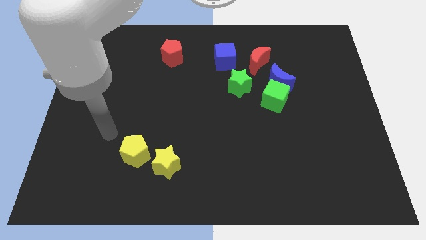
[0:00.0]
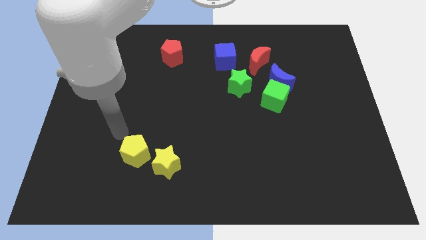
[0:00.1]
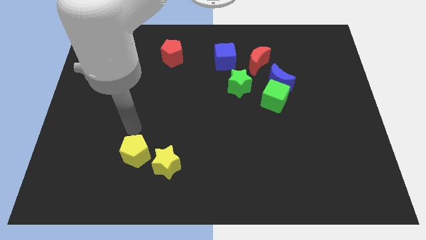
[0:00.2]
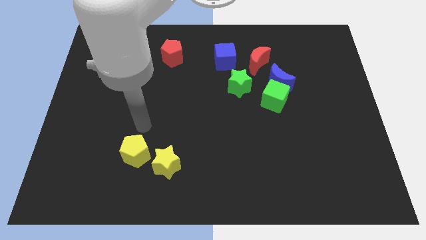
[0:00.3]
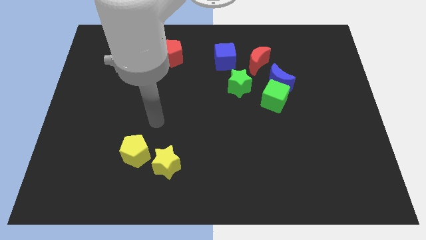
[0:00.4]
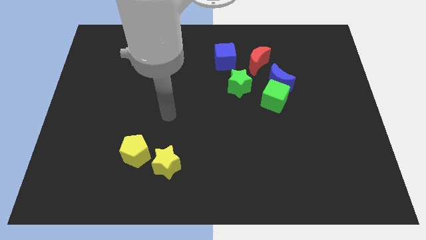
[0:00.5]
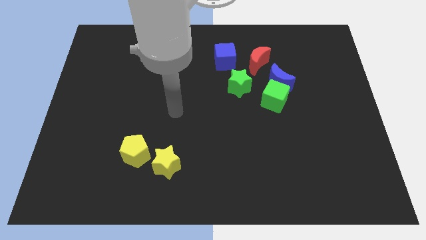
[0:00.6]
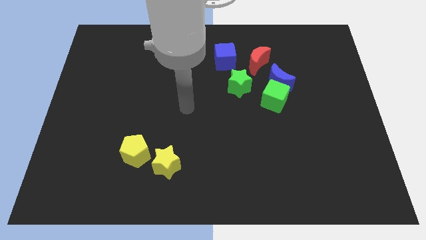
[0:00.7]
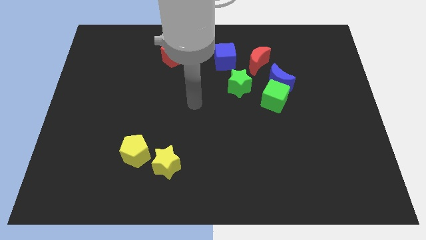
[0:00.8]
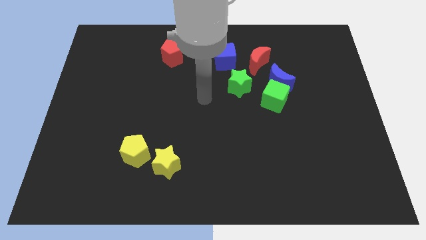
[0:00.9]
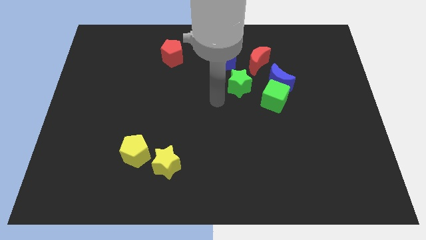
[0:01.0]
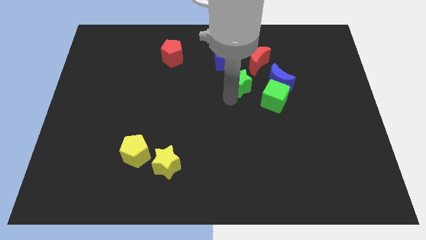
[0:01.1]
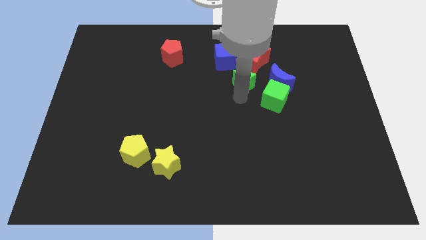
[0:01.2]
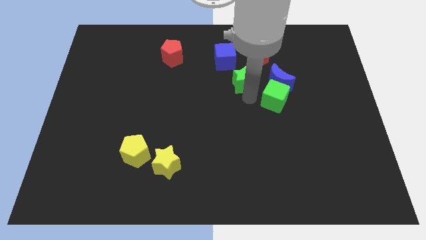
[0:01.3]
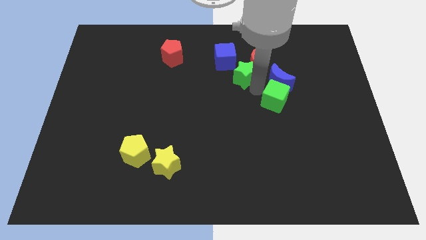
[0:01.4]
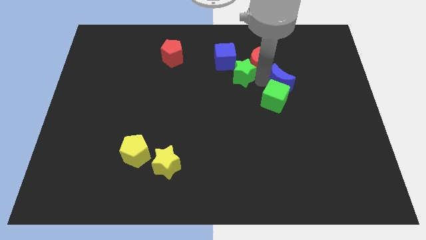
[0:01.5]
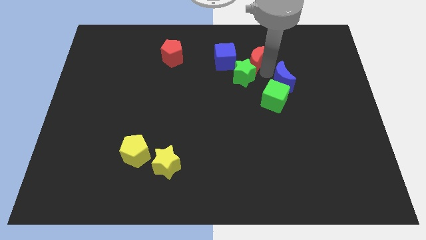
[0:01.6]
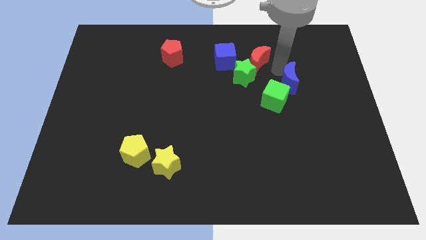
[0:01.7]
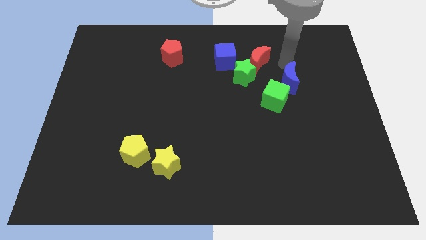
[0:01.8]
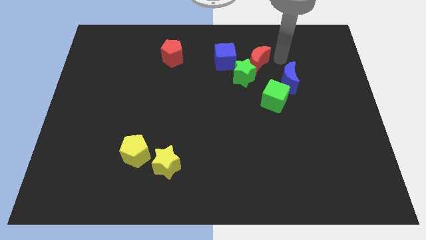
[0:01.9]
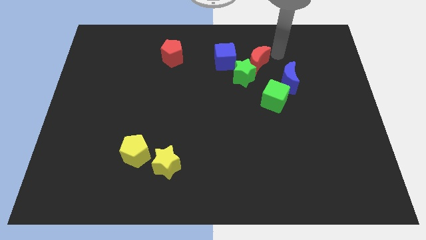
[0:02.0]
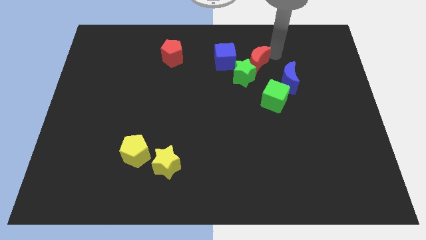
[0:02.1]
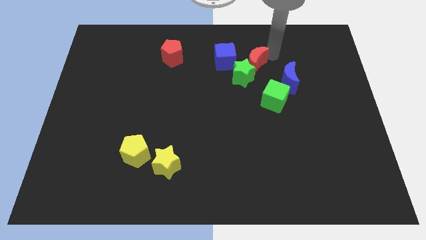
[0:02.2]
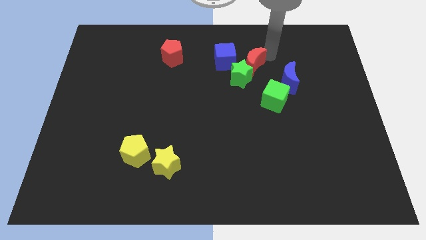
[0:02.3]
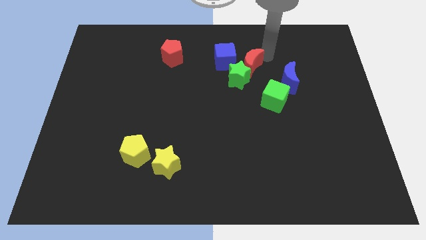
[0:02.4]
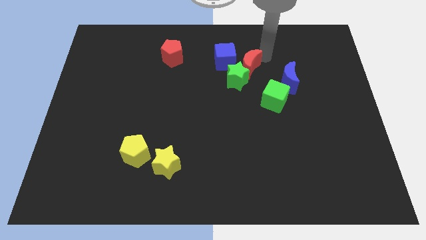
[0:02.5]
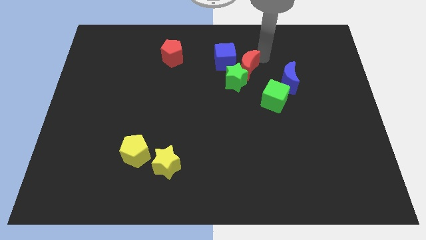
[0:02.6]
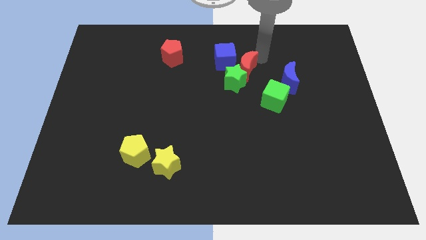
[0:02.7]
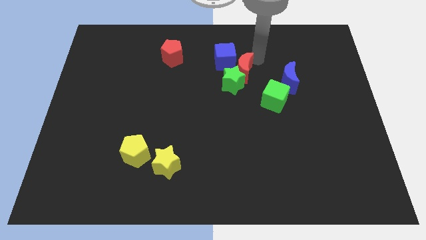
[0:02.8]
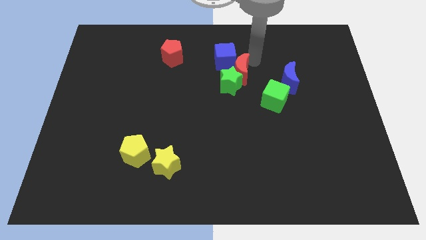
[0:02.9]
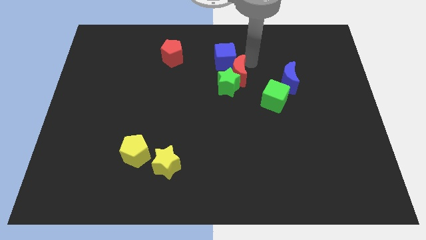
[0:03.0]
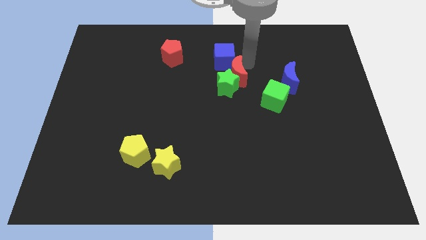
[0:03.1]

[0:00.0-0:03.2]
slightly push the red moon down and to the left

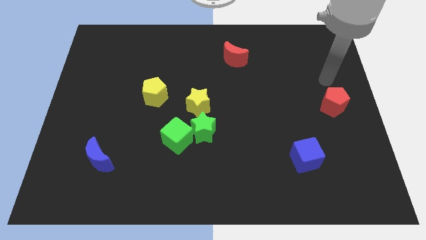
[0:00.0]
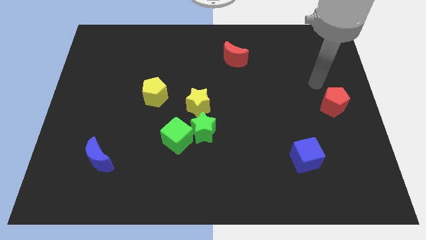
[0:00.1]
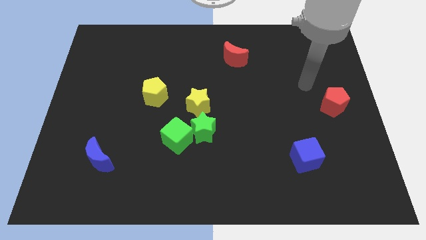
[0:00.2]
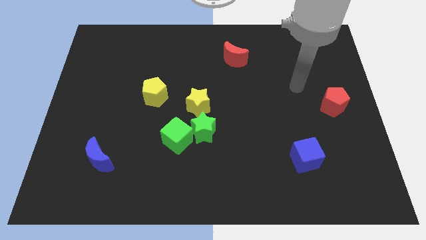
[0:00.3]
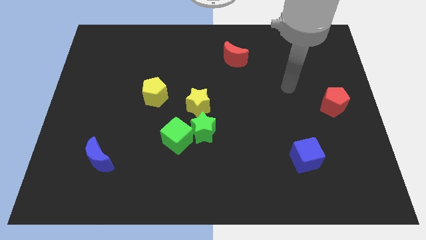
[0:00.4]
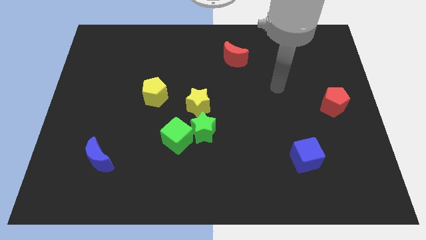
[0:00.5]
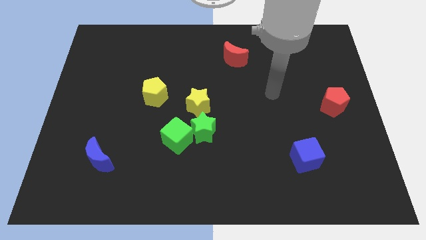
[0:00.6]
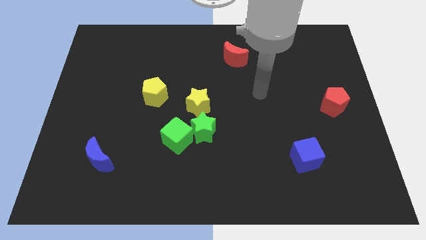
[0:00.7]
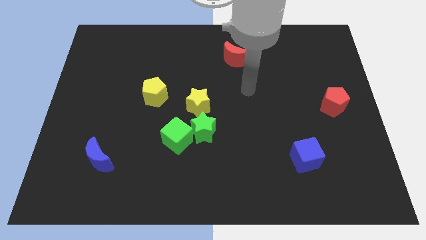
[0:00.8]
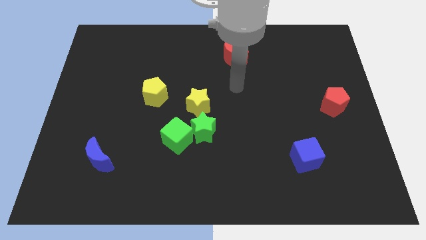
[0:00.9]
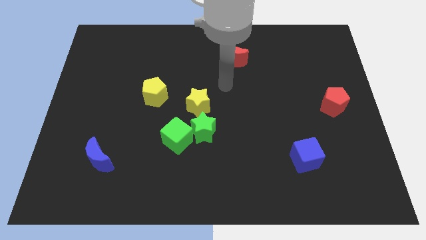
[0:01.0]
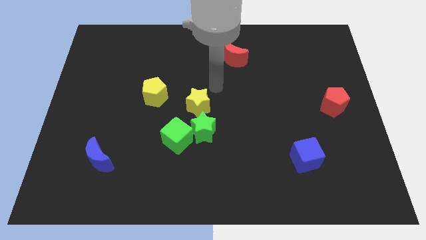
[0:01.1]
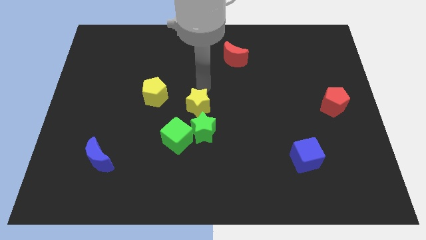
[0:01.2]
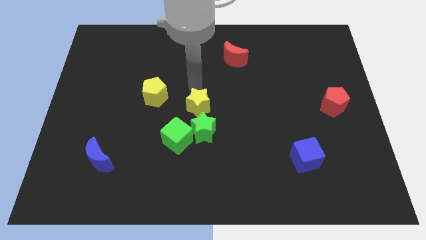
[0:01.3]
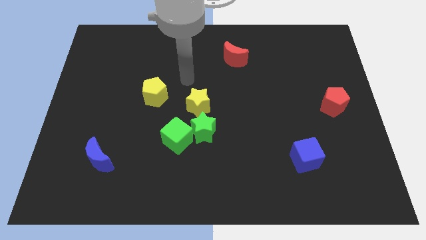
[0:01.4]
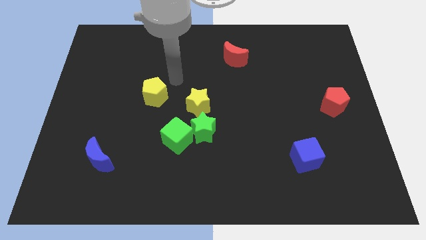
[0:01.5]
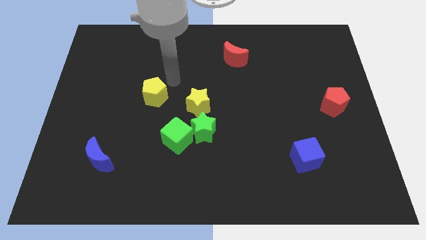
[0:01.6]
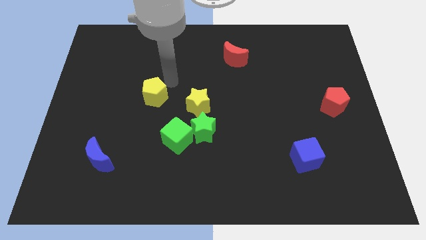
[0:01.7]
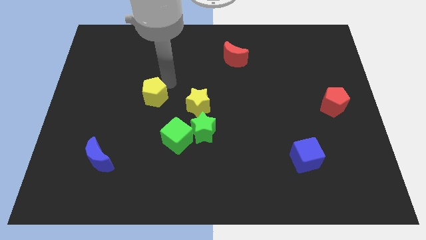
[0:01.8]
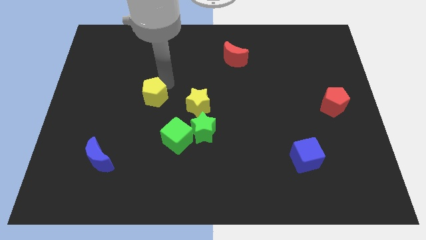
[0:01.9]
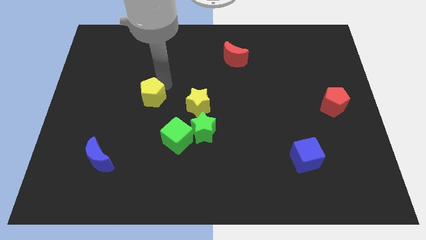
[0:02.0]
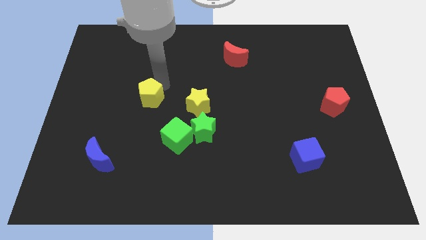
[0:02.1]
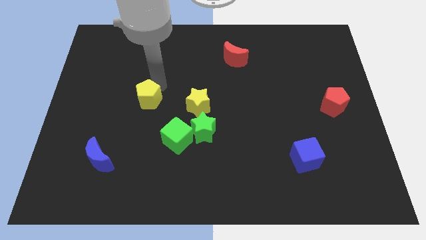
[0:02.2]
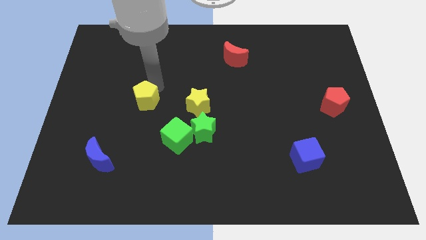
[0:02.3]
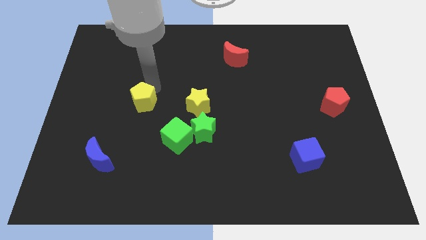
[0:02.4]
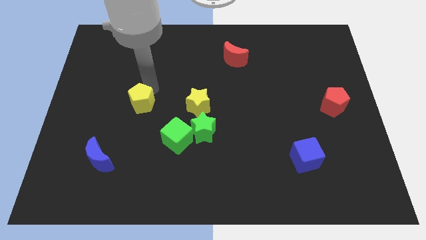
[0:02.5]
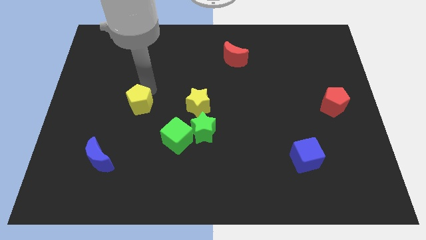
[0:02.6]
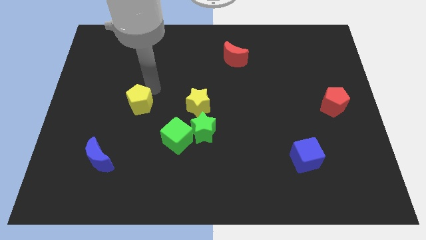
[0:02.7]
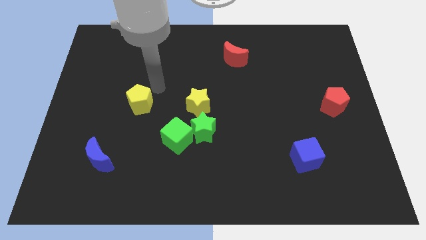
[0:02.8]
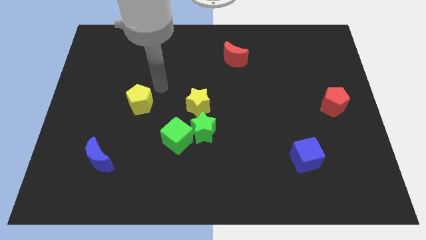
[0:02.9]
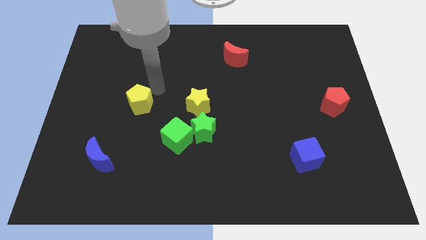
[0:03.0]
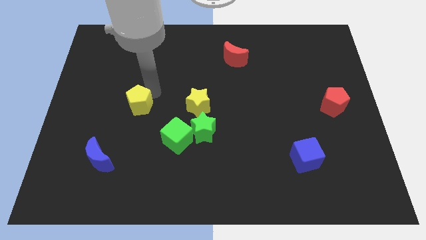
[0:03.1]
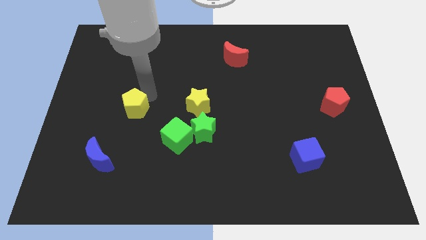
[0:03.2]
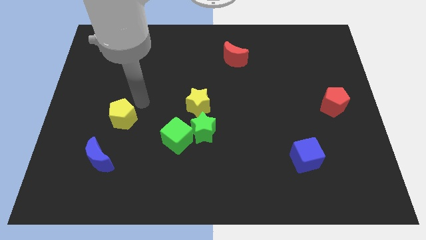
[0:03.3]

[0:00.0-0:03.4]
move the yellow pentagon slightly diagonally down and to the left

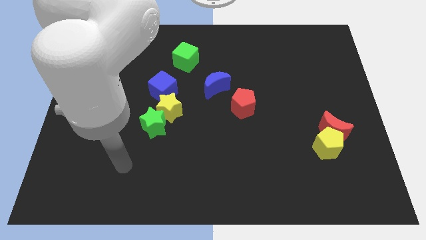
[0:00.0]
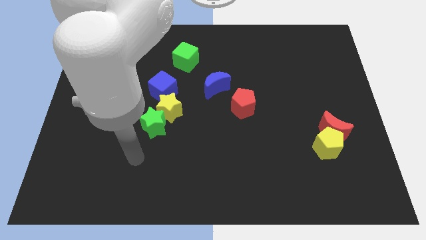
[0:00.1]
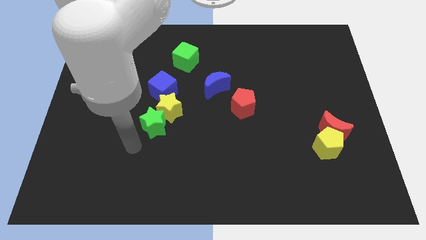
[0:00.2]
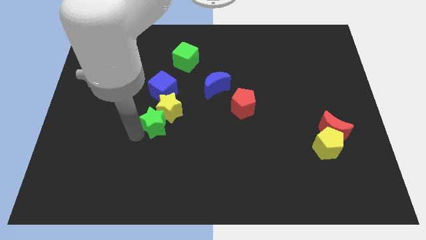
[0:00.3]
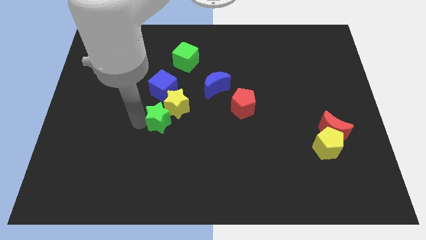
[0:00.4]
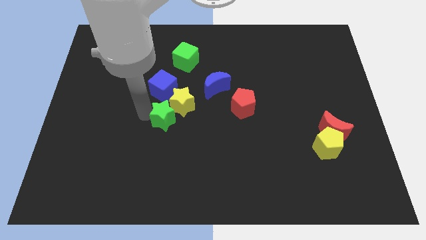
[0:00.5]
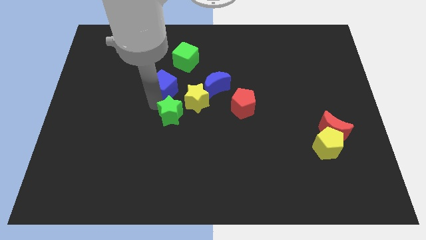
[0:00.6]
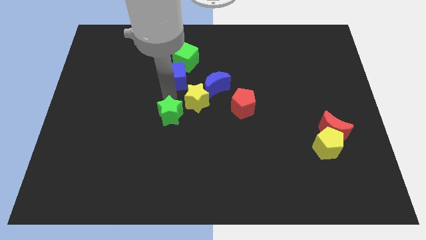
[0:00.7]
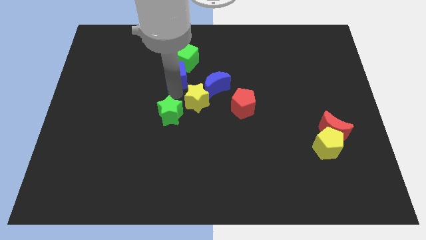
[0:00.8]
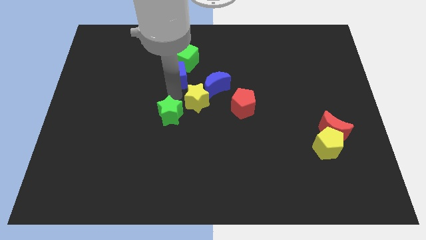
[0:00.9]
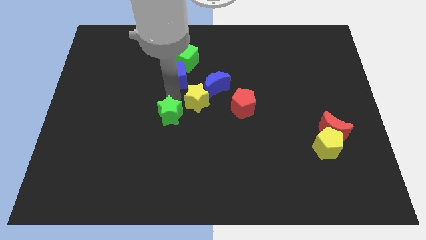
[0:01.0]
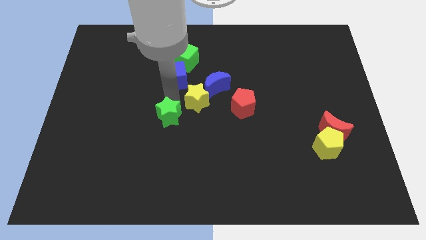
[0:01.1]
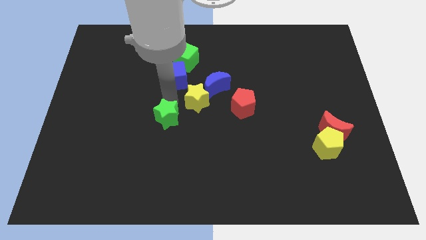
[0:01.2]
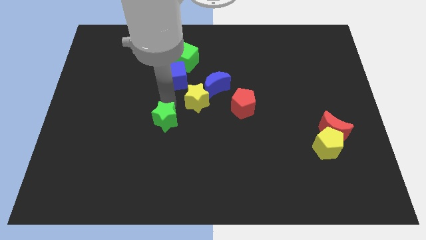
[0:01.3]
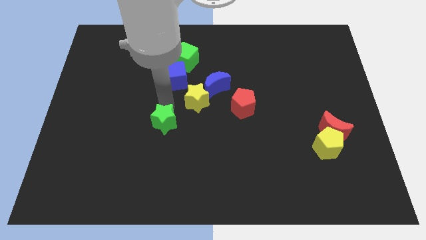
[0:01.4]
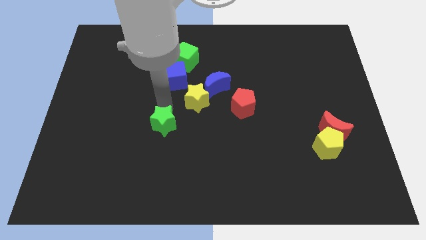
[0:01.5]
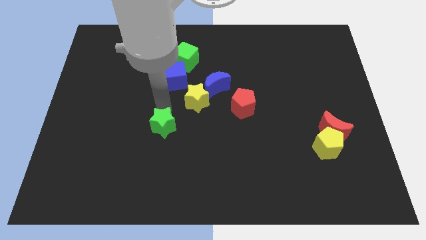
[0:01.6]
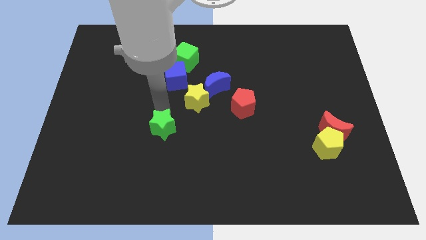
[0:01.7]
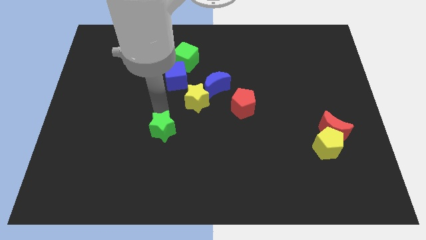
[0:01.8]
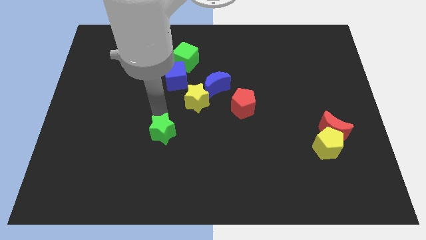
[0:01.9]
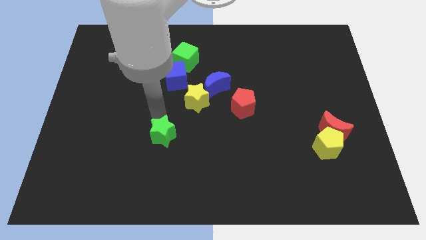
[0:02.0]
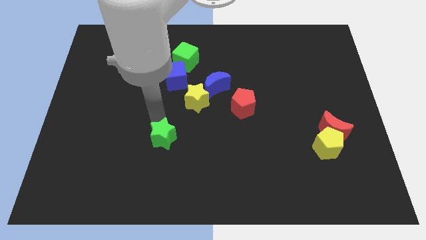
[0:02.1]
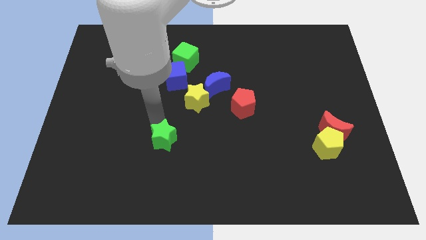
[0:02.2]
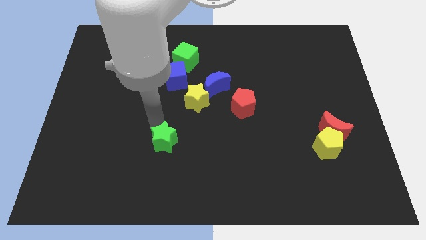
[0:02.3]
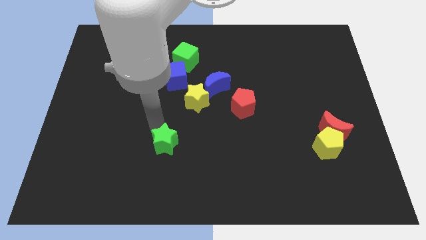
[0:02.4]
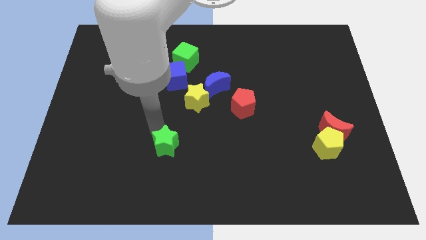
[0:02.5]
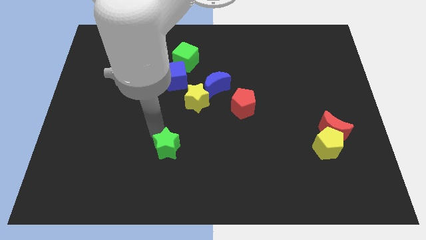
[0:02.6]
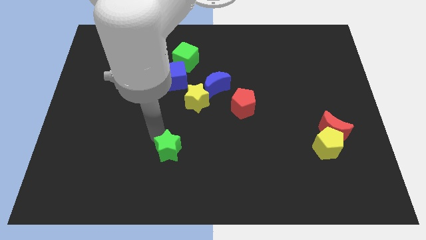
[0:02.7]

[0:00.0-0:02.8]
push the green star downwards and then right slightly
